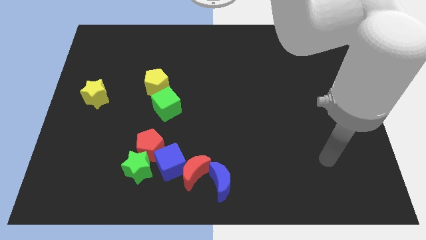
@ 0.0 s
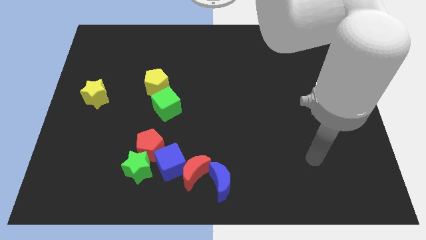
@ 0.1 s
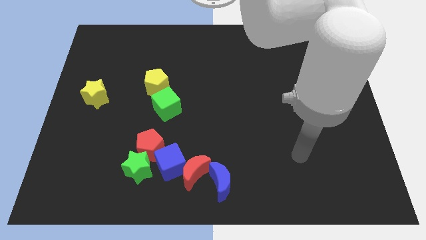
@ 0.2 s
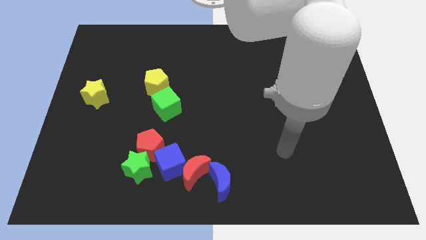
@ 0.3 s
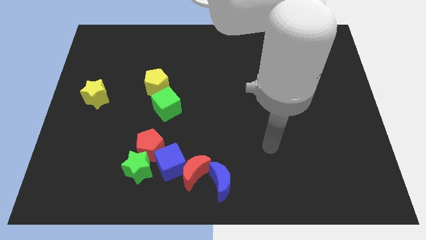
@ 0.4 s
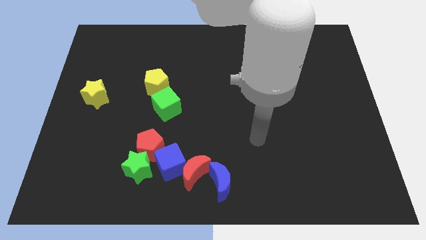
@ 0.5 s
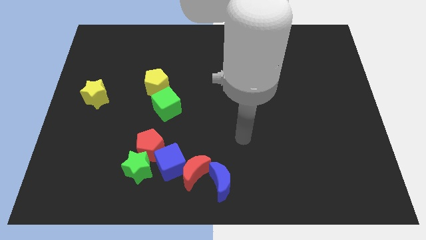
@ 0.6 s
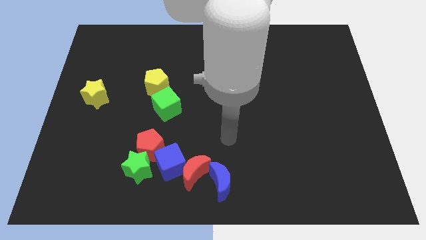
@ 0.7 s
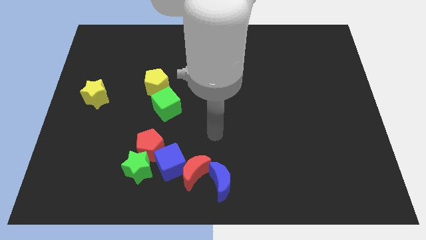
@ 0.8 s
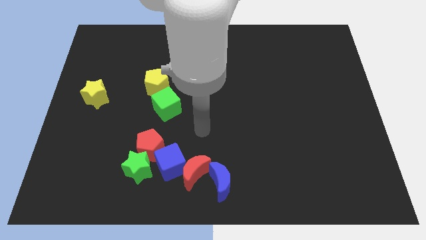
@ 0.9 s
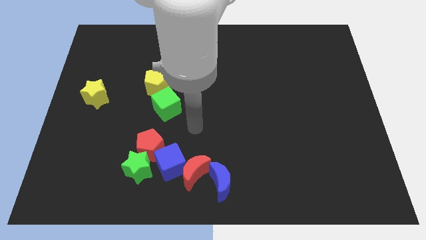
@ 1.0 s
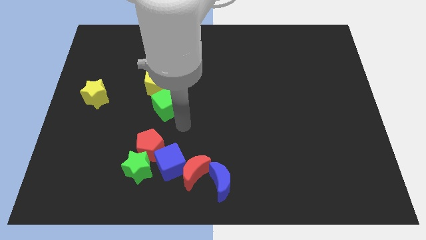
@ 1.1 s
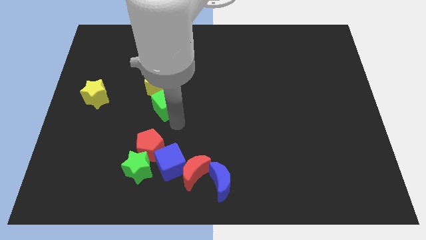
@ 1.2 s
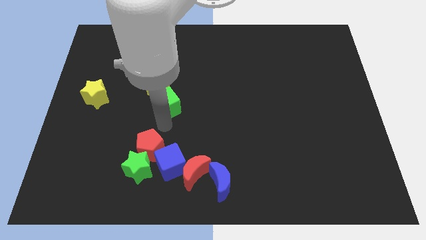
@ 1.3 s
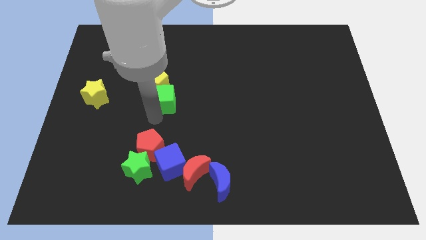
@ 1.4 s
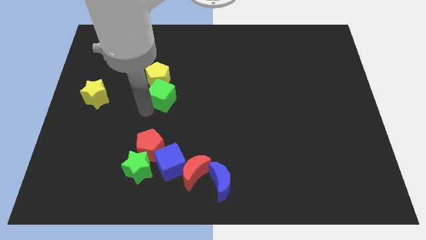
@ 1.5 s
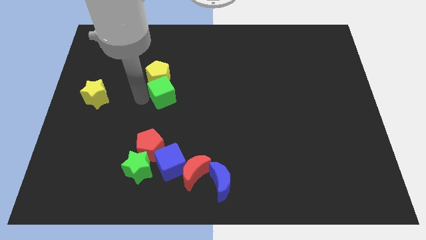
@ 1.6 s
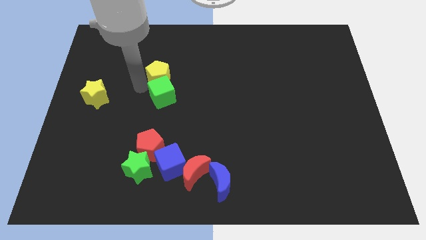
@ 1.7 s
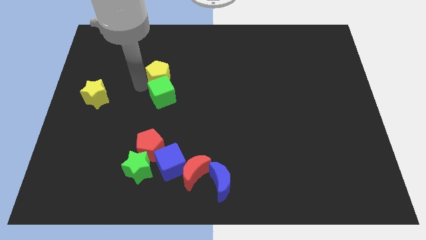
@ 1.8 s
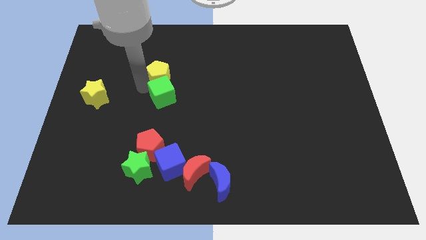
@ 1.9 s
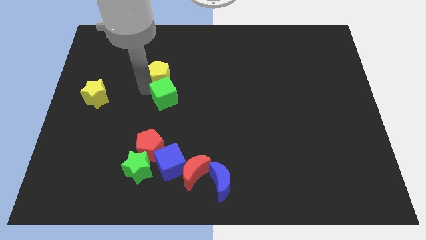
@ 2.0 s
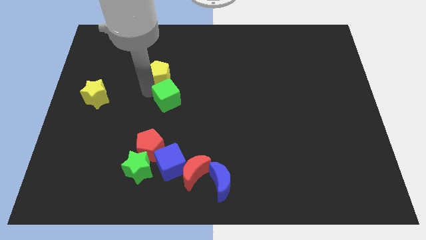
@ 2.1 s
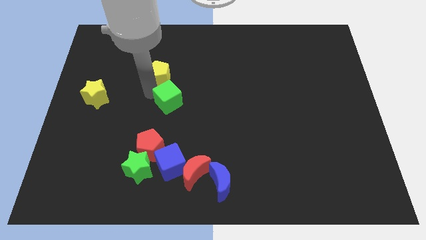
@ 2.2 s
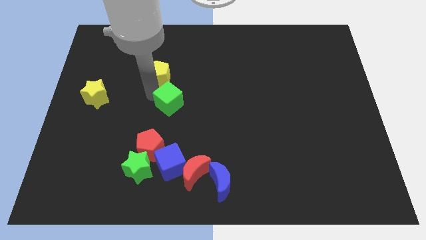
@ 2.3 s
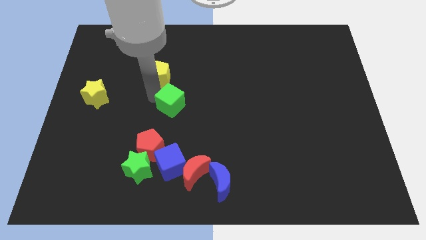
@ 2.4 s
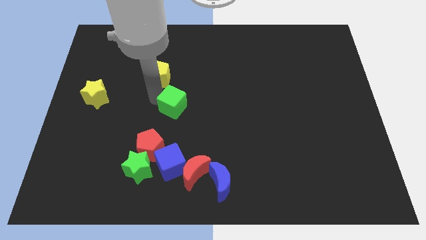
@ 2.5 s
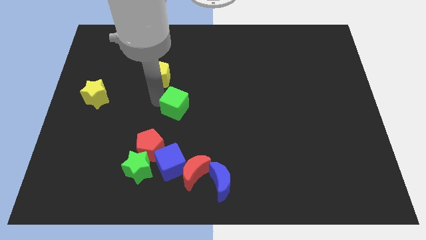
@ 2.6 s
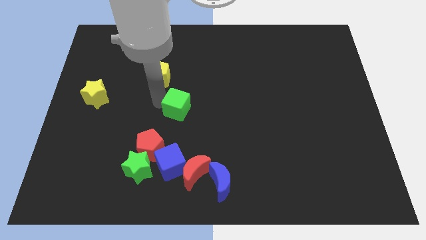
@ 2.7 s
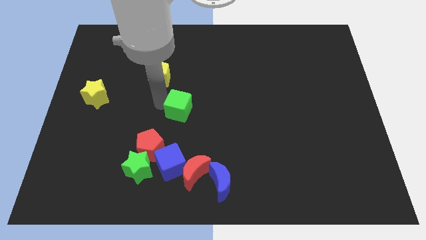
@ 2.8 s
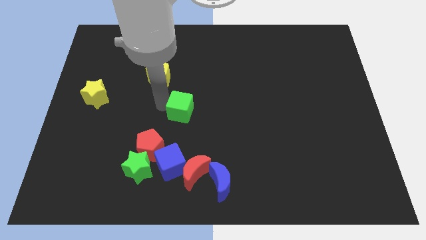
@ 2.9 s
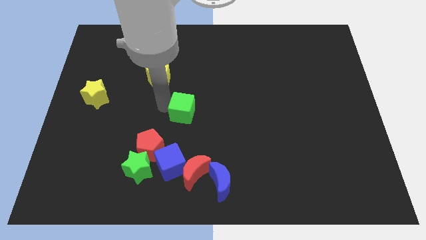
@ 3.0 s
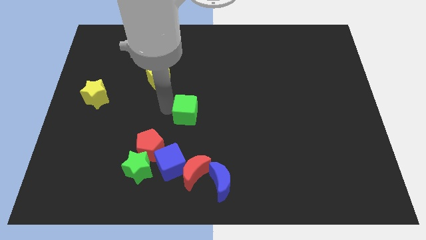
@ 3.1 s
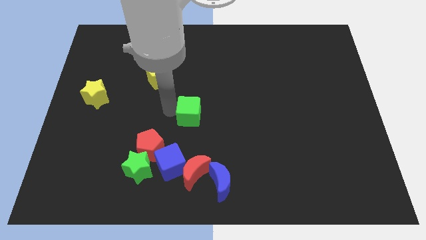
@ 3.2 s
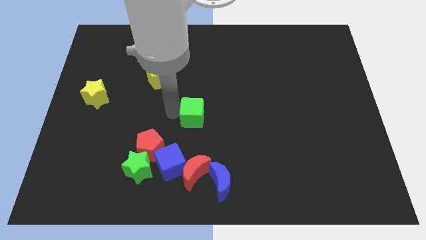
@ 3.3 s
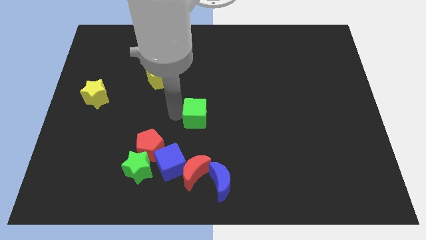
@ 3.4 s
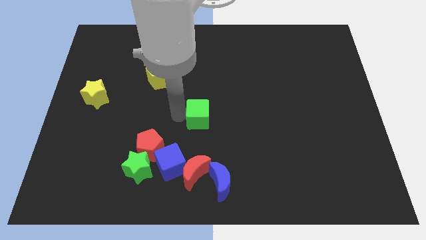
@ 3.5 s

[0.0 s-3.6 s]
move the green cube a bit to the right

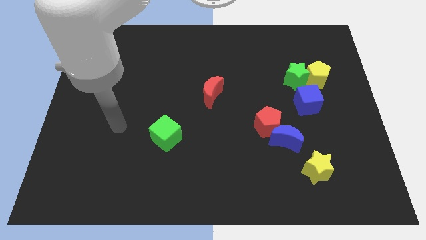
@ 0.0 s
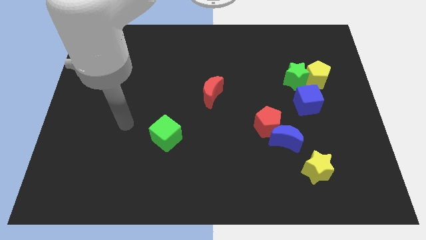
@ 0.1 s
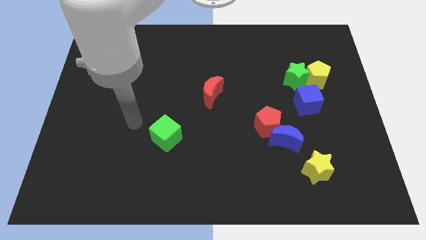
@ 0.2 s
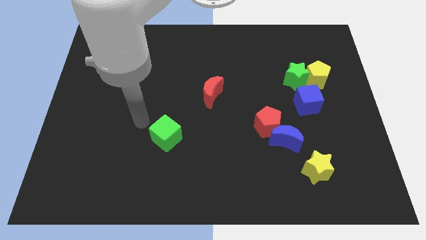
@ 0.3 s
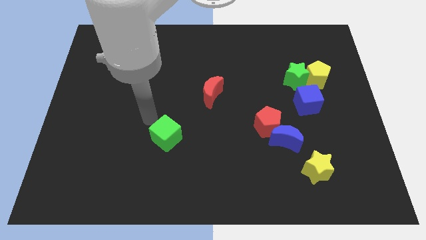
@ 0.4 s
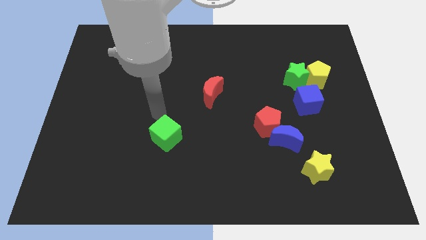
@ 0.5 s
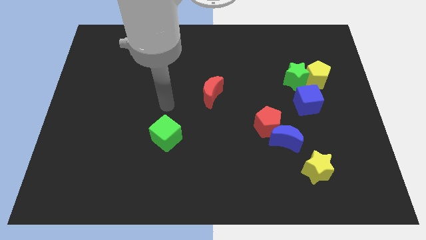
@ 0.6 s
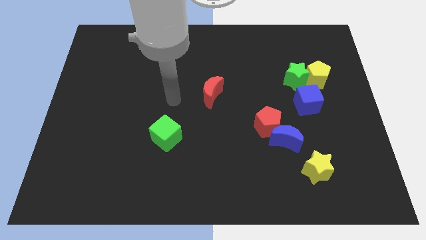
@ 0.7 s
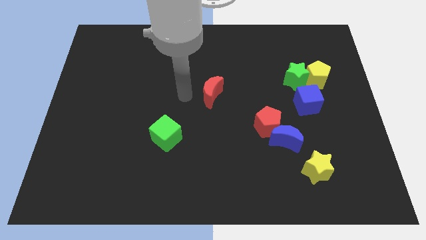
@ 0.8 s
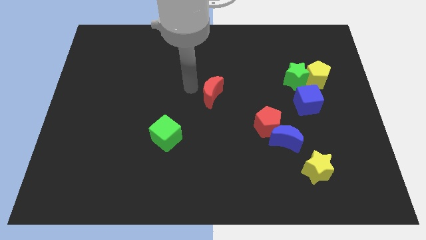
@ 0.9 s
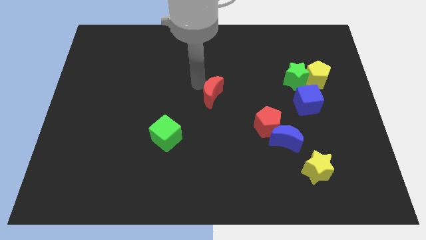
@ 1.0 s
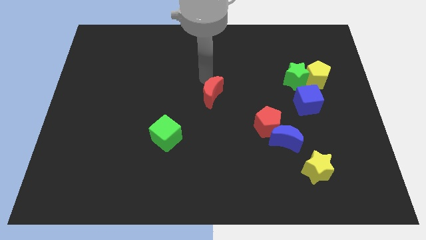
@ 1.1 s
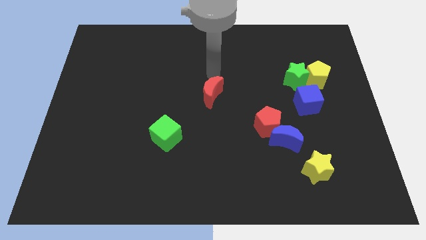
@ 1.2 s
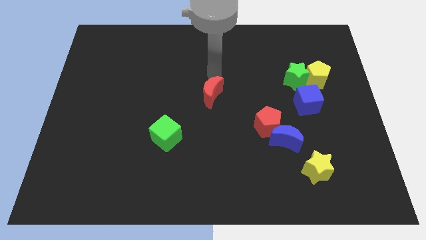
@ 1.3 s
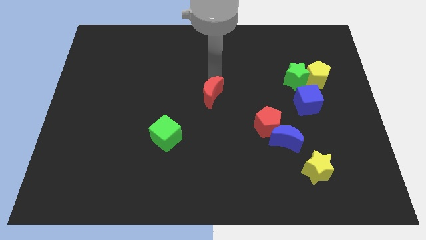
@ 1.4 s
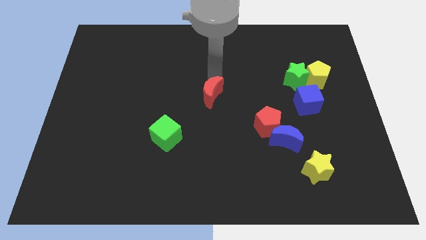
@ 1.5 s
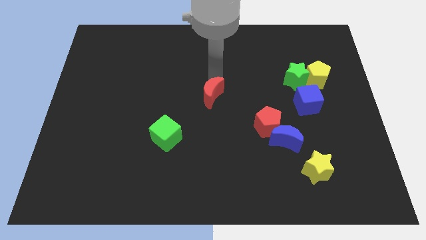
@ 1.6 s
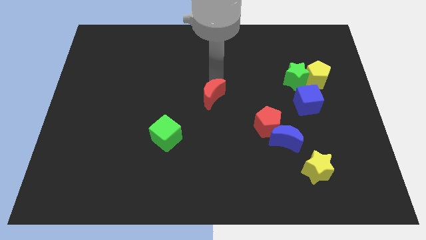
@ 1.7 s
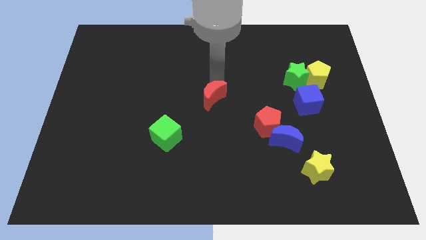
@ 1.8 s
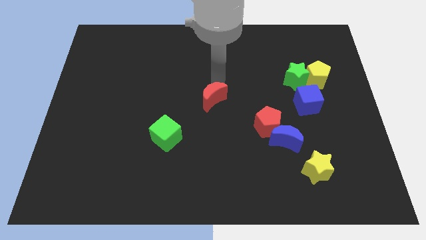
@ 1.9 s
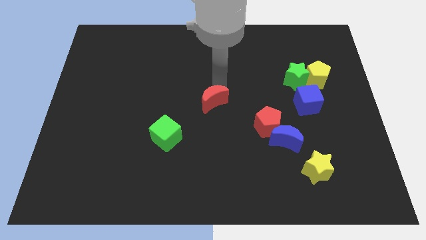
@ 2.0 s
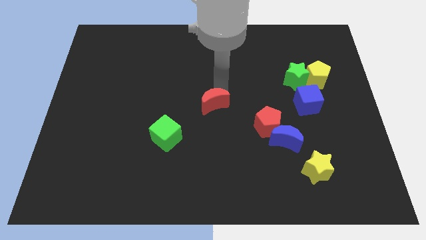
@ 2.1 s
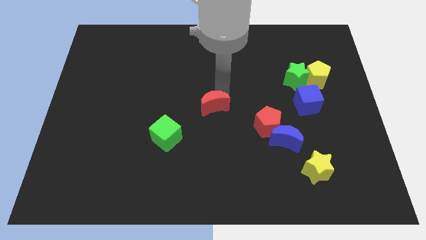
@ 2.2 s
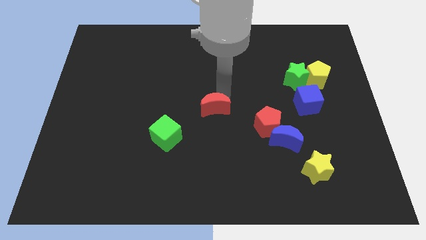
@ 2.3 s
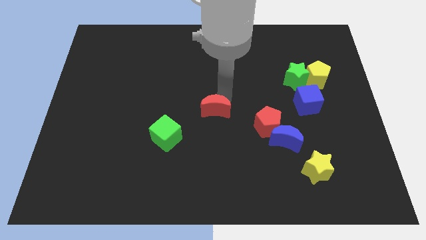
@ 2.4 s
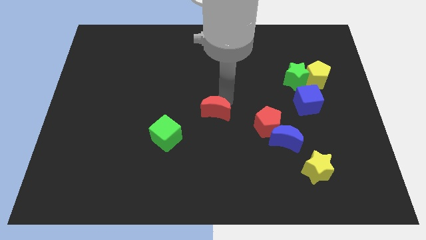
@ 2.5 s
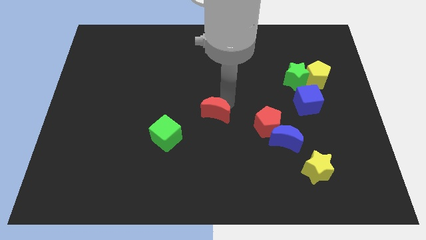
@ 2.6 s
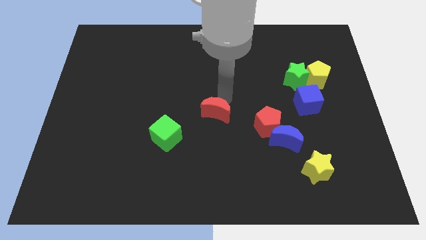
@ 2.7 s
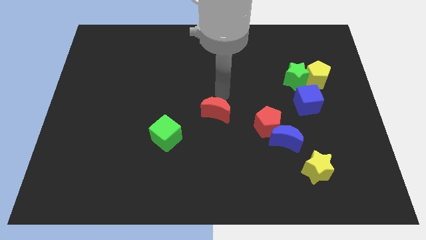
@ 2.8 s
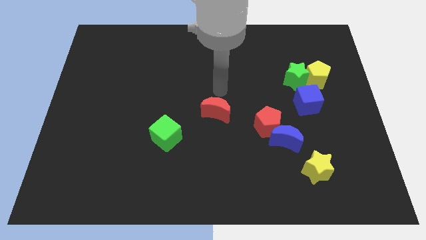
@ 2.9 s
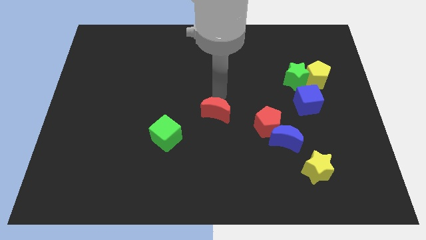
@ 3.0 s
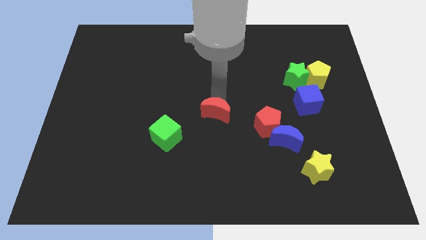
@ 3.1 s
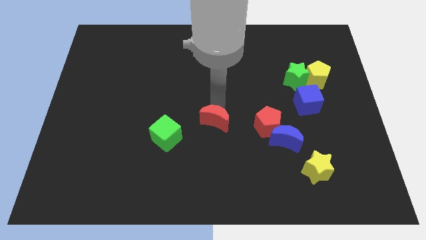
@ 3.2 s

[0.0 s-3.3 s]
push the red moon a bit downwards

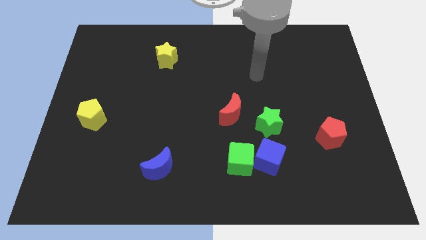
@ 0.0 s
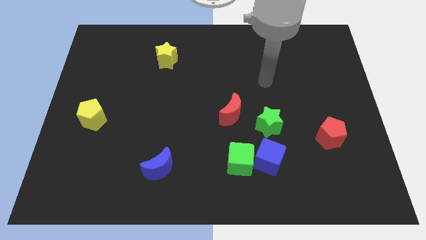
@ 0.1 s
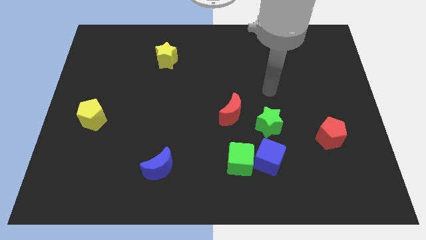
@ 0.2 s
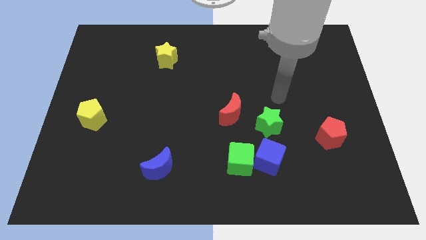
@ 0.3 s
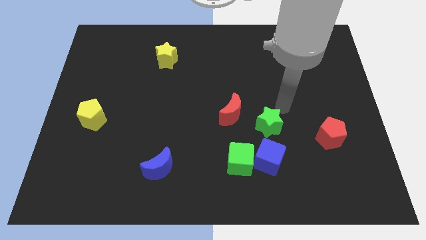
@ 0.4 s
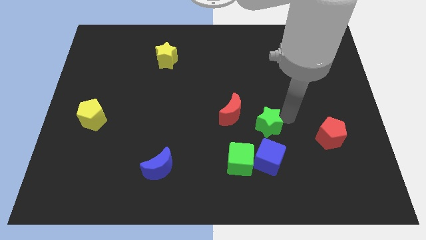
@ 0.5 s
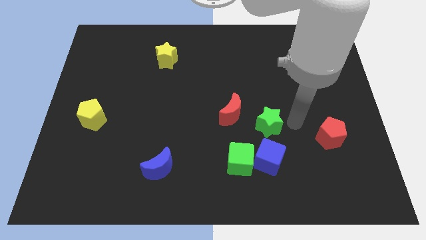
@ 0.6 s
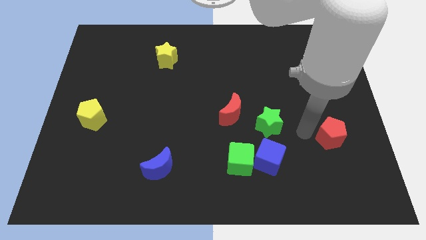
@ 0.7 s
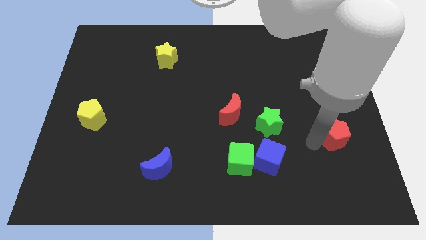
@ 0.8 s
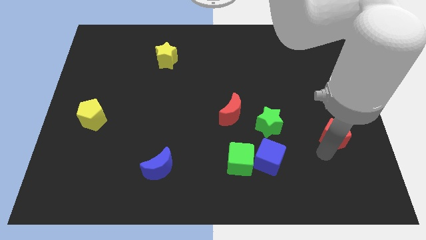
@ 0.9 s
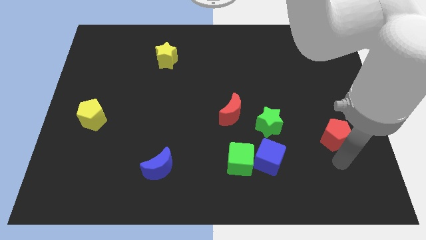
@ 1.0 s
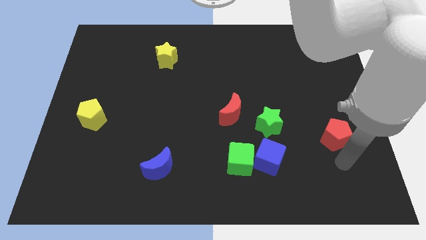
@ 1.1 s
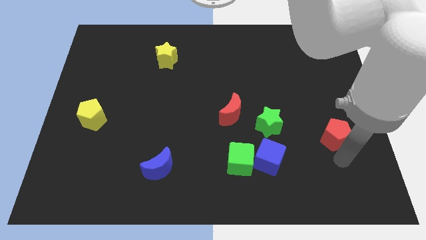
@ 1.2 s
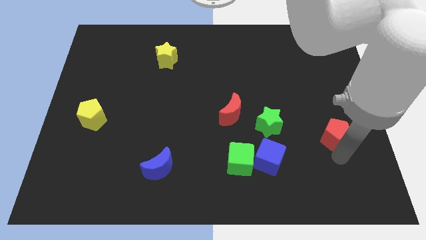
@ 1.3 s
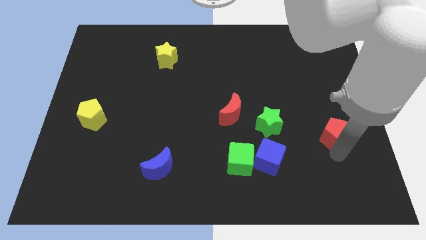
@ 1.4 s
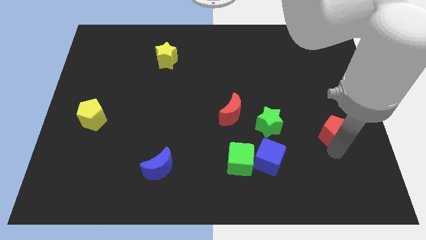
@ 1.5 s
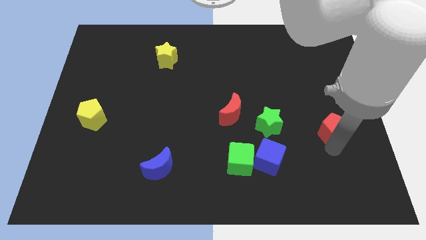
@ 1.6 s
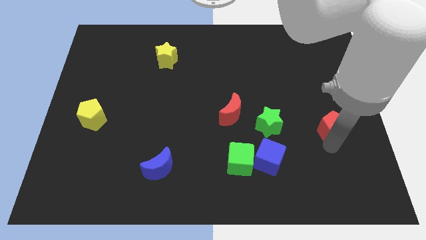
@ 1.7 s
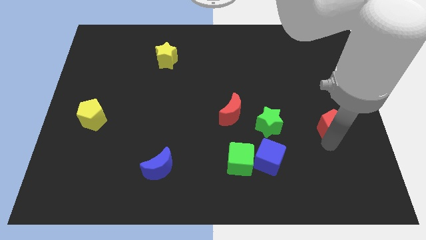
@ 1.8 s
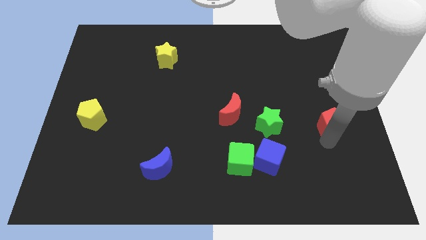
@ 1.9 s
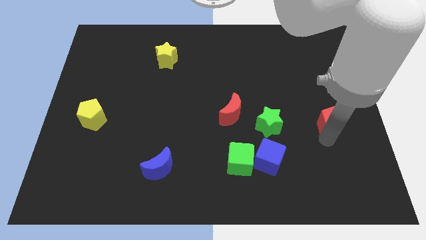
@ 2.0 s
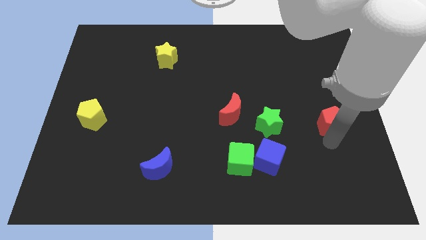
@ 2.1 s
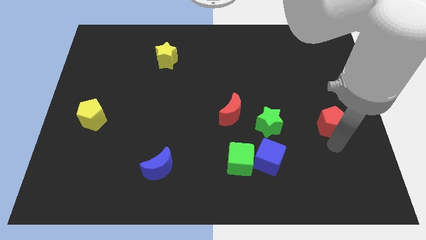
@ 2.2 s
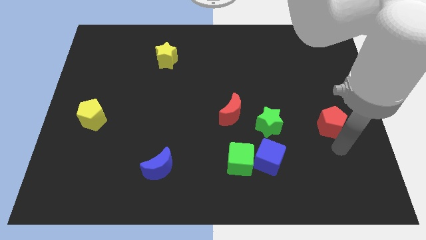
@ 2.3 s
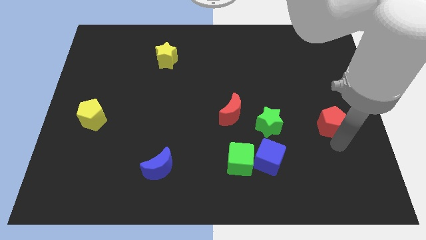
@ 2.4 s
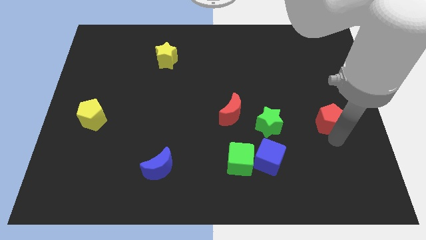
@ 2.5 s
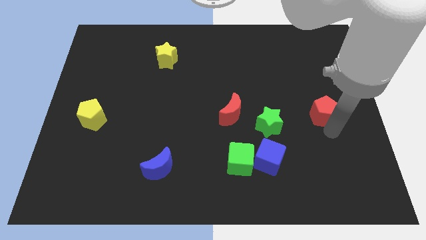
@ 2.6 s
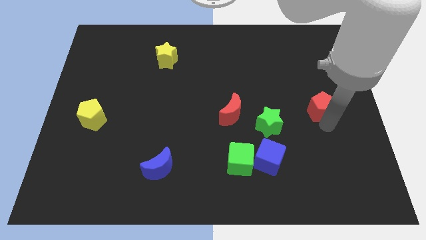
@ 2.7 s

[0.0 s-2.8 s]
push the red pentagon somewhat up
